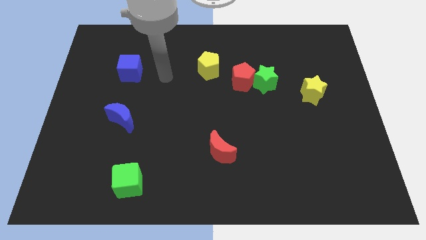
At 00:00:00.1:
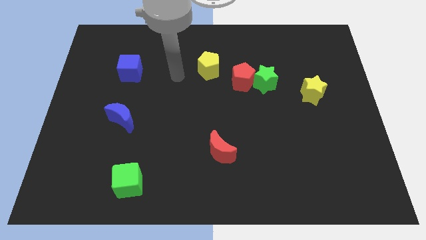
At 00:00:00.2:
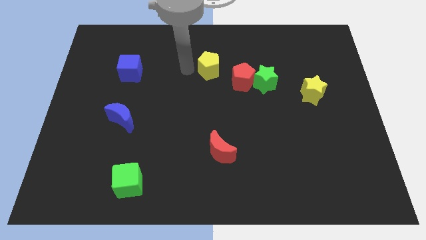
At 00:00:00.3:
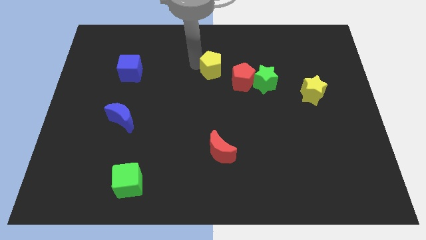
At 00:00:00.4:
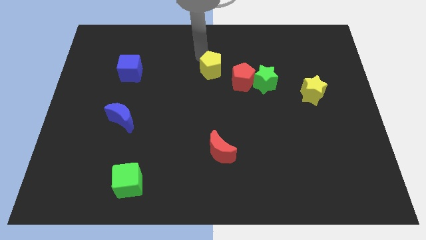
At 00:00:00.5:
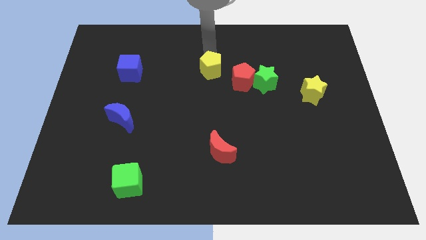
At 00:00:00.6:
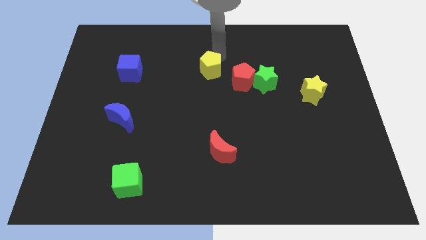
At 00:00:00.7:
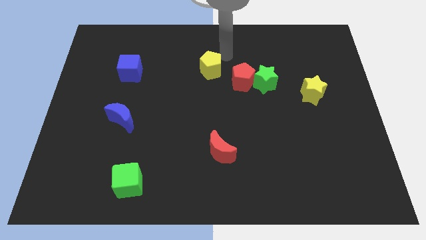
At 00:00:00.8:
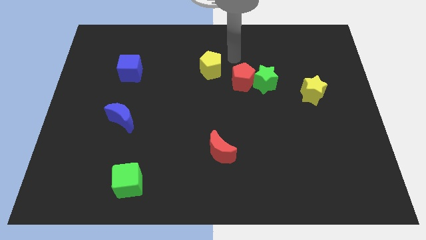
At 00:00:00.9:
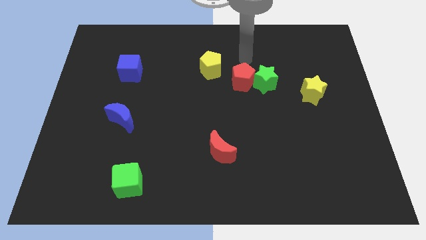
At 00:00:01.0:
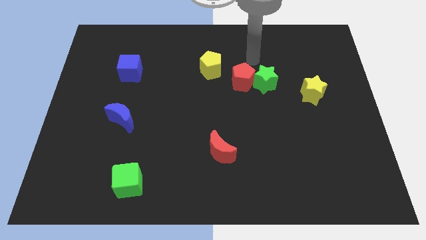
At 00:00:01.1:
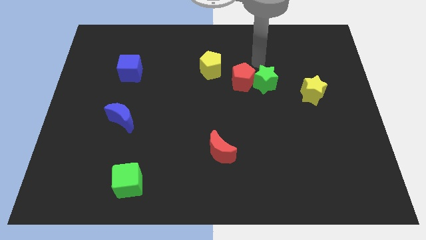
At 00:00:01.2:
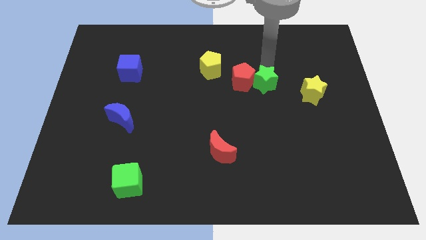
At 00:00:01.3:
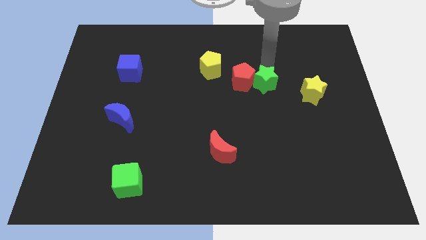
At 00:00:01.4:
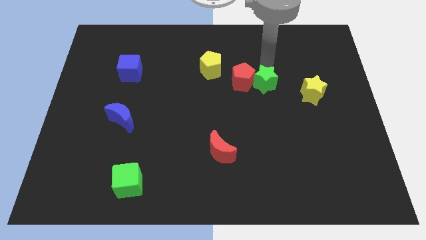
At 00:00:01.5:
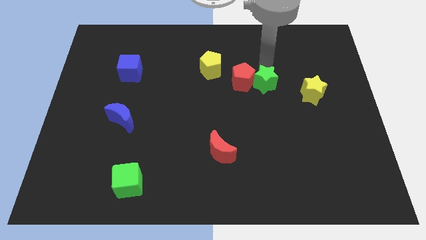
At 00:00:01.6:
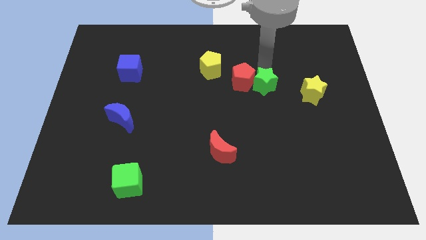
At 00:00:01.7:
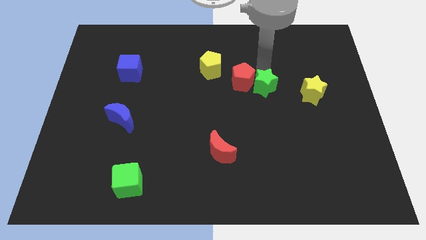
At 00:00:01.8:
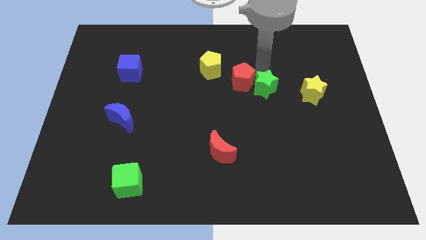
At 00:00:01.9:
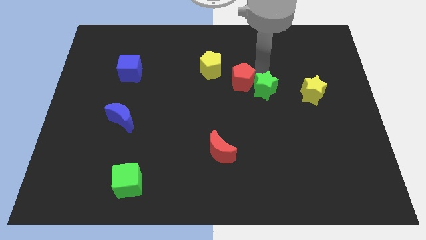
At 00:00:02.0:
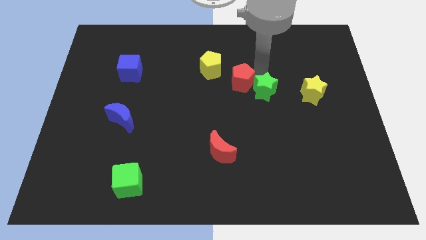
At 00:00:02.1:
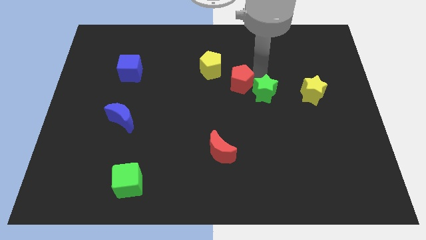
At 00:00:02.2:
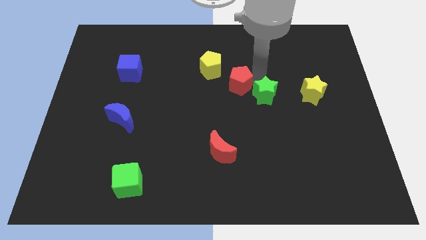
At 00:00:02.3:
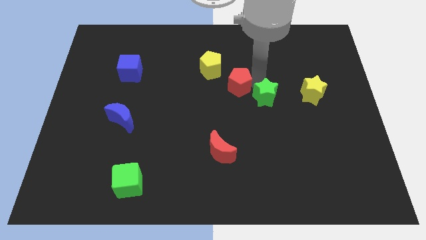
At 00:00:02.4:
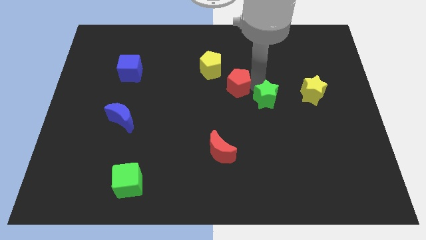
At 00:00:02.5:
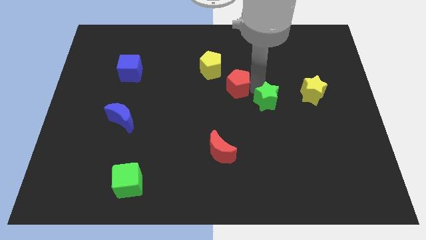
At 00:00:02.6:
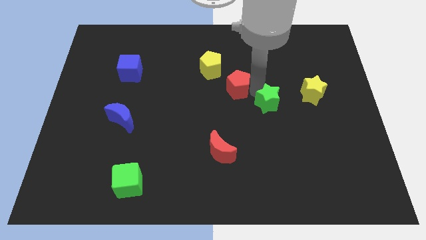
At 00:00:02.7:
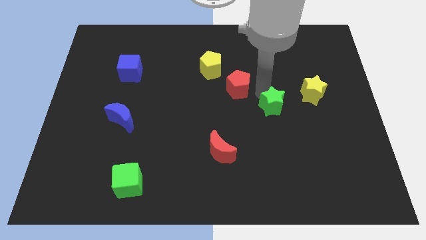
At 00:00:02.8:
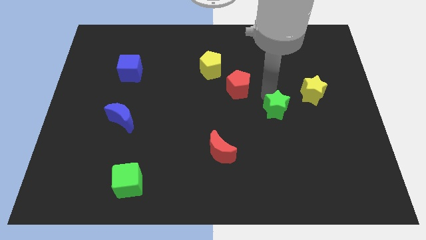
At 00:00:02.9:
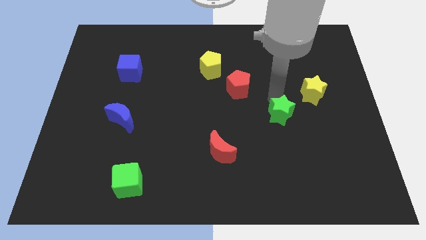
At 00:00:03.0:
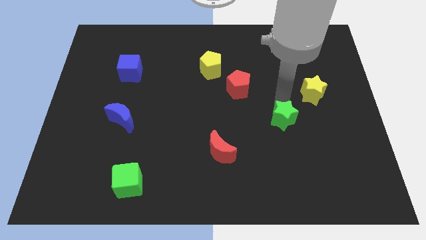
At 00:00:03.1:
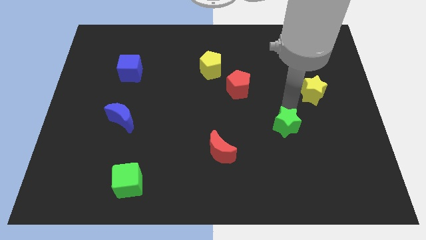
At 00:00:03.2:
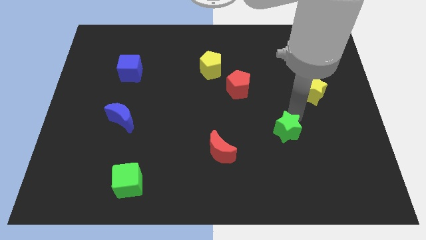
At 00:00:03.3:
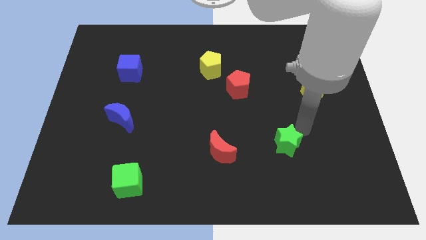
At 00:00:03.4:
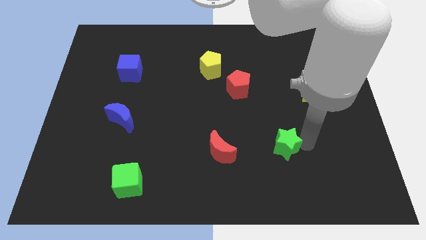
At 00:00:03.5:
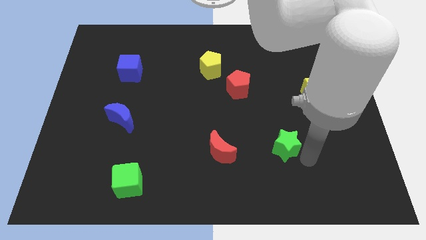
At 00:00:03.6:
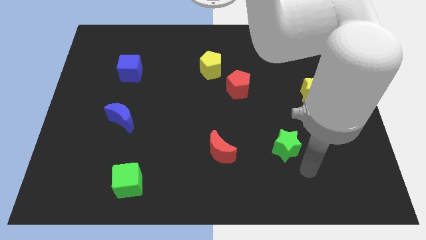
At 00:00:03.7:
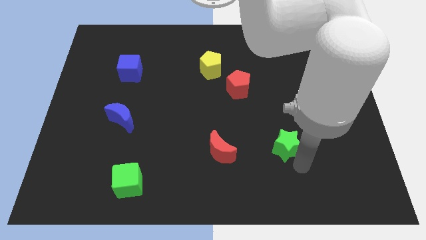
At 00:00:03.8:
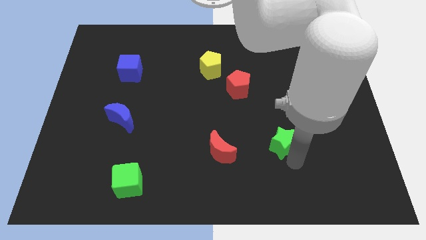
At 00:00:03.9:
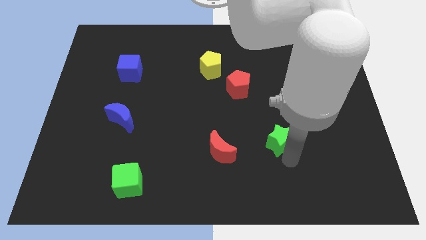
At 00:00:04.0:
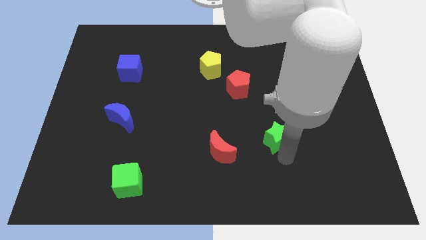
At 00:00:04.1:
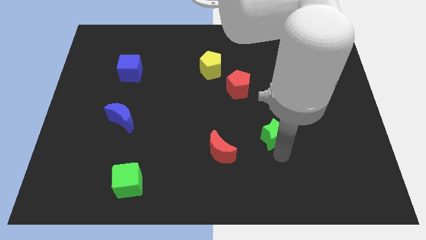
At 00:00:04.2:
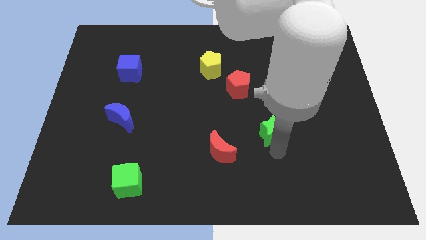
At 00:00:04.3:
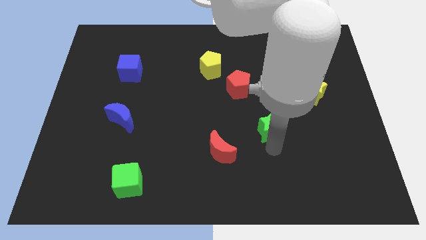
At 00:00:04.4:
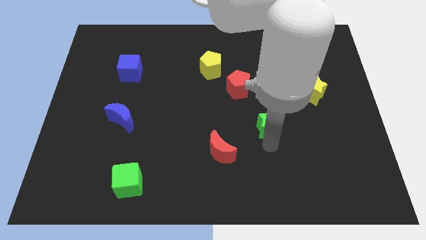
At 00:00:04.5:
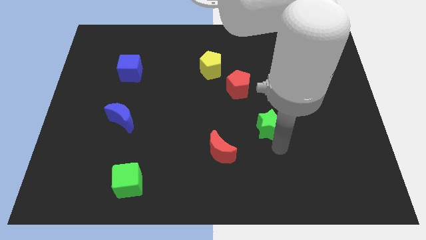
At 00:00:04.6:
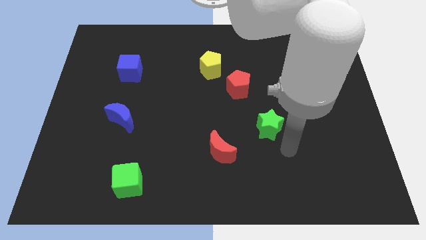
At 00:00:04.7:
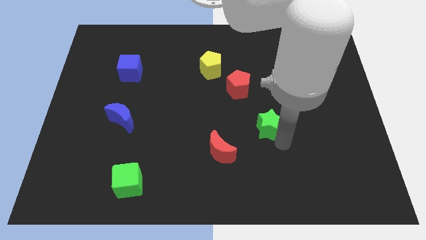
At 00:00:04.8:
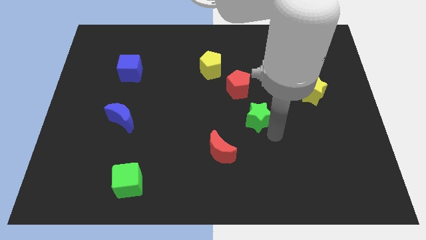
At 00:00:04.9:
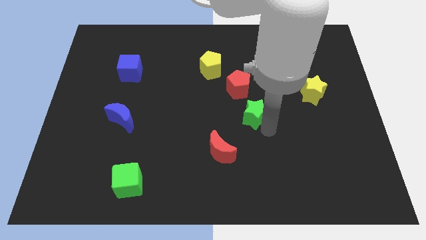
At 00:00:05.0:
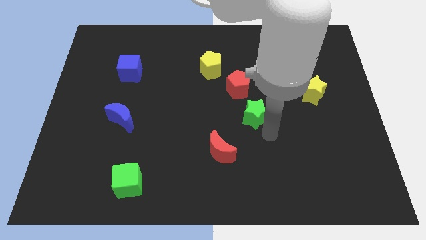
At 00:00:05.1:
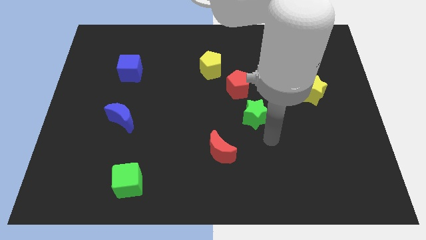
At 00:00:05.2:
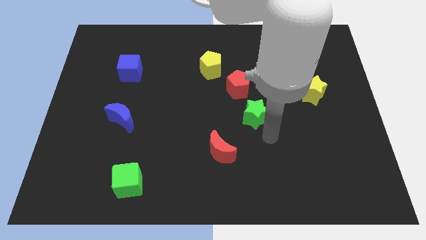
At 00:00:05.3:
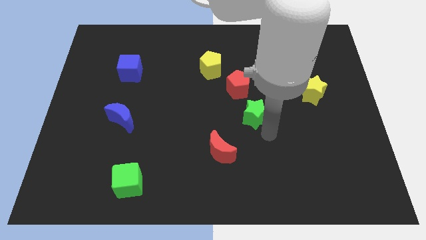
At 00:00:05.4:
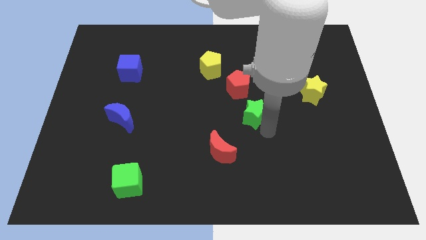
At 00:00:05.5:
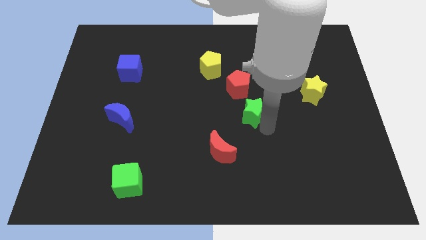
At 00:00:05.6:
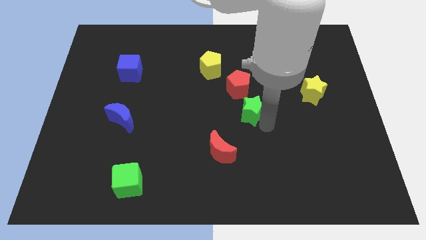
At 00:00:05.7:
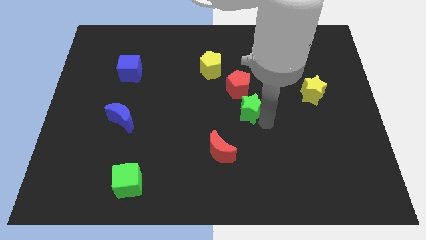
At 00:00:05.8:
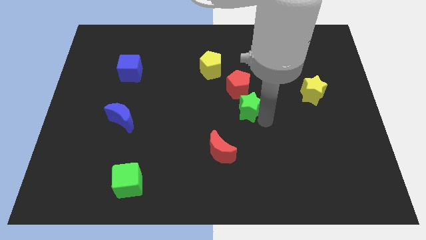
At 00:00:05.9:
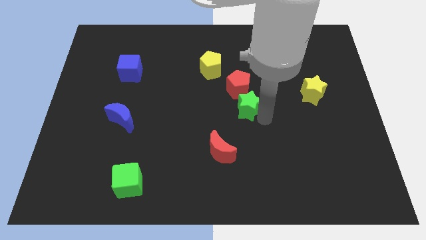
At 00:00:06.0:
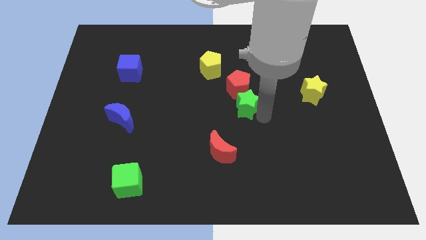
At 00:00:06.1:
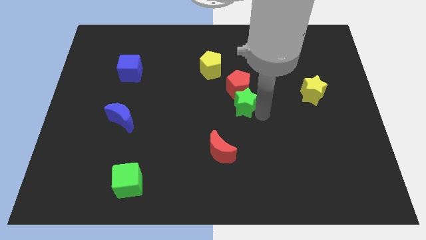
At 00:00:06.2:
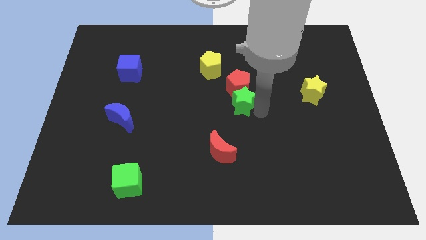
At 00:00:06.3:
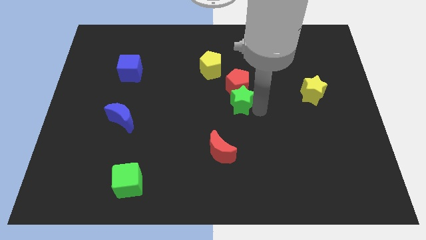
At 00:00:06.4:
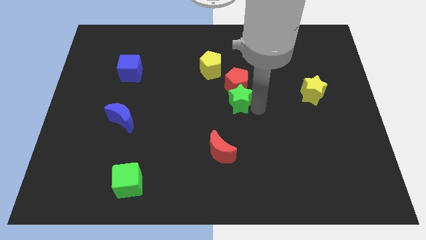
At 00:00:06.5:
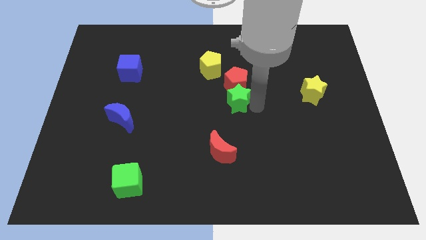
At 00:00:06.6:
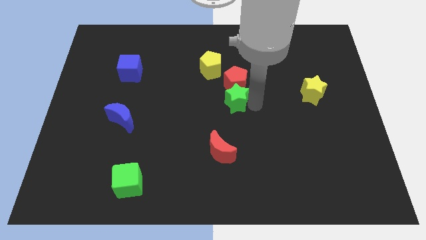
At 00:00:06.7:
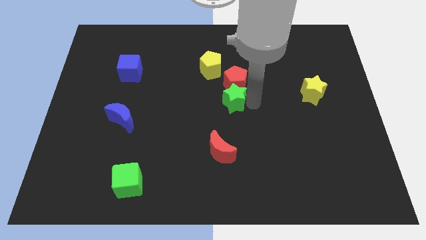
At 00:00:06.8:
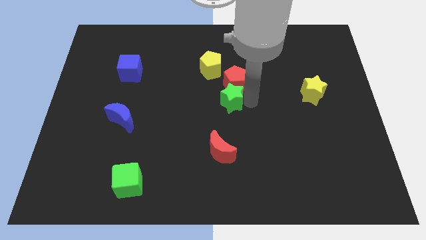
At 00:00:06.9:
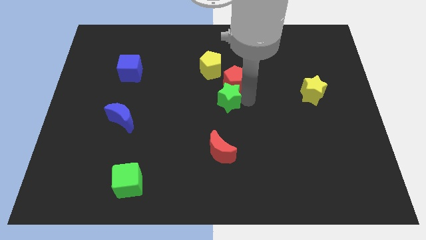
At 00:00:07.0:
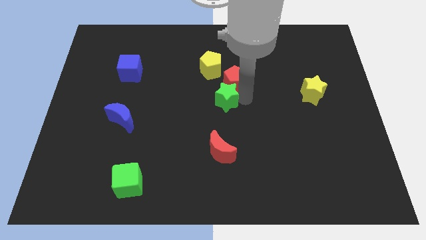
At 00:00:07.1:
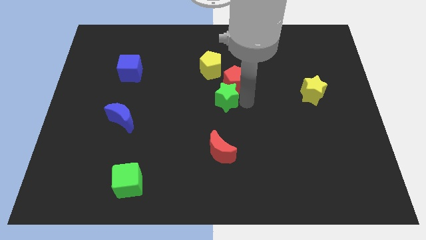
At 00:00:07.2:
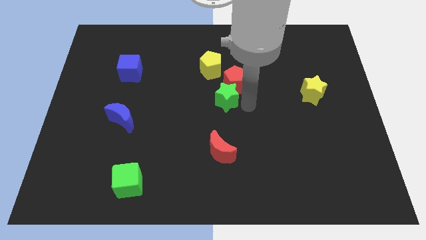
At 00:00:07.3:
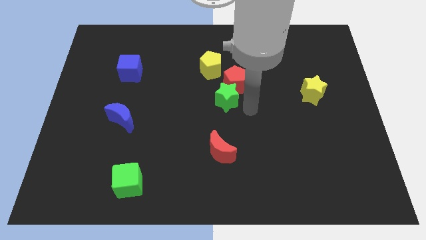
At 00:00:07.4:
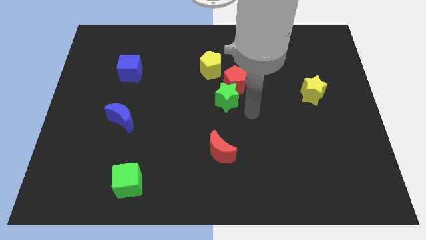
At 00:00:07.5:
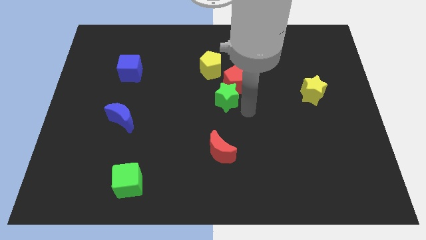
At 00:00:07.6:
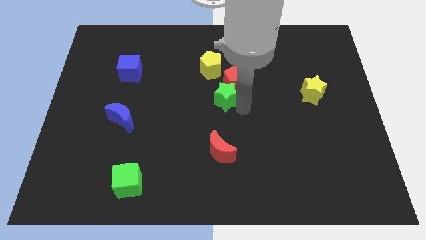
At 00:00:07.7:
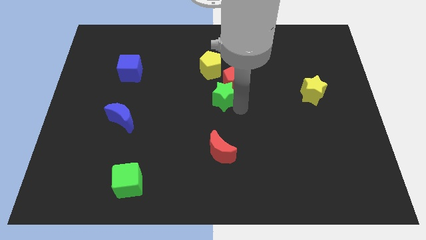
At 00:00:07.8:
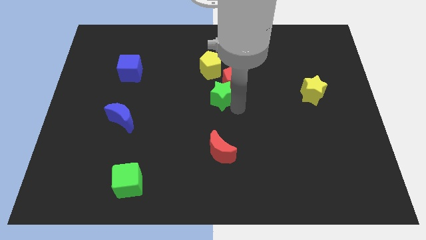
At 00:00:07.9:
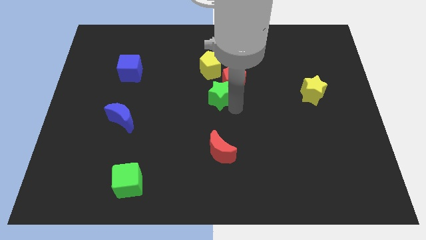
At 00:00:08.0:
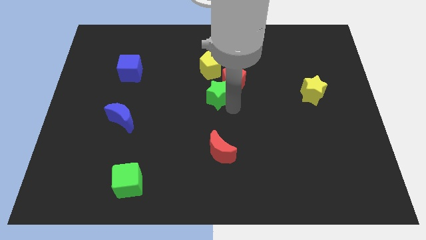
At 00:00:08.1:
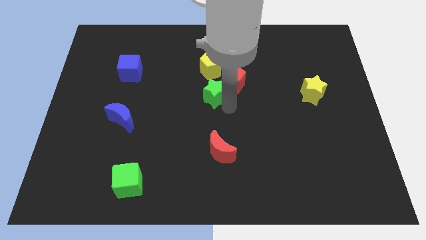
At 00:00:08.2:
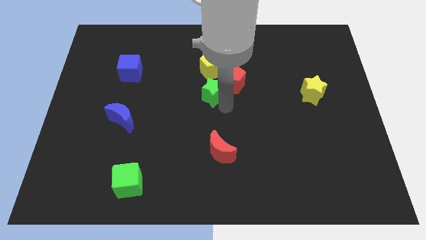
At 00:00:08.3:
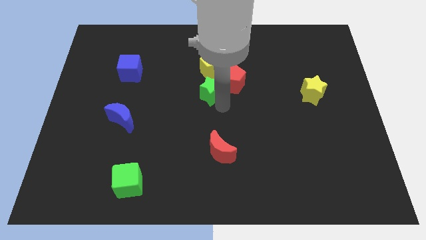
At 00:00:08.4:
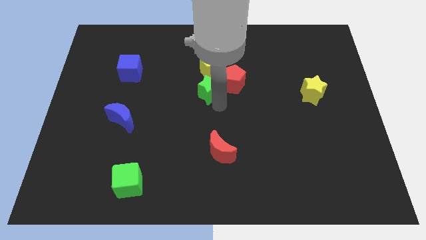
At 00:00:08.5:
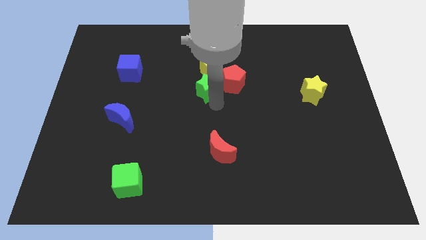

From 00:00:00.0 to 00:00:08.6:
push the green star to the bottom left side of the yellow pentagon
